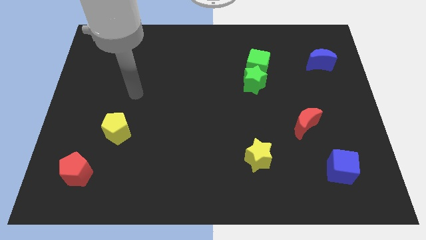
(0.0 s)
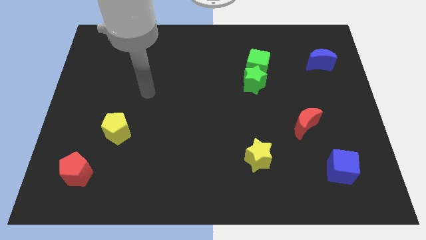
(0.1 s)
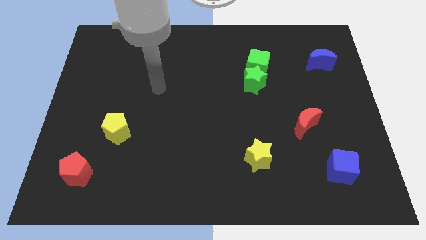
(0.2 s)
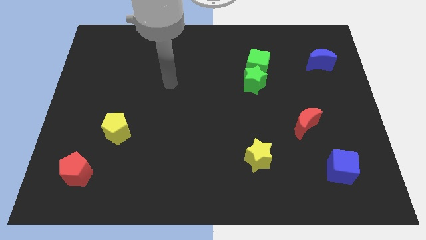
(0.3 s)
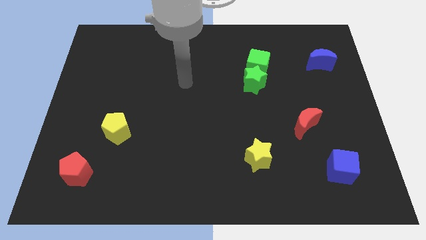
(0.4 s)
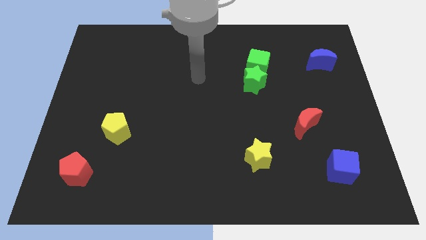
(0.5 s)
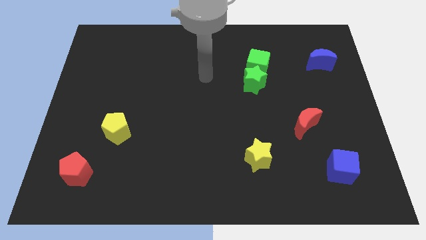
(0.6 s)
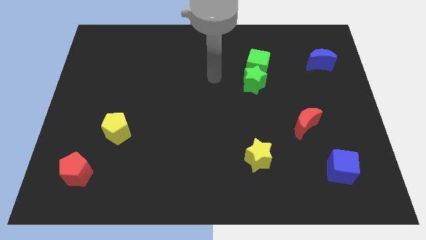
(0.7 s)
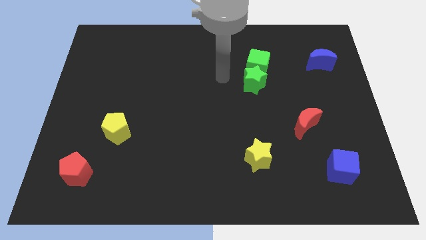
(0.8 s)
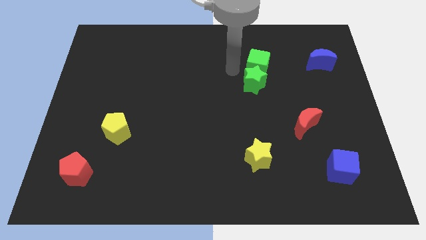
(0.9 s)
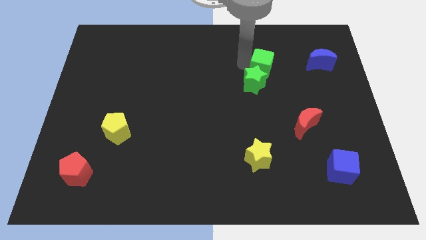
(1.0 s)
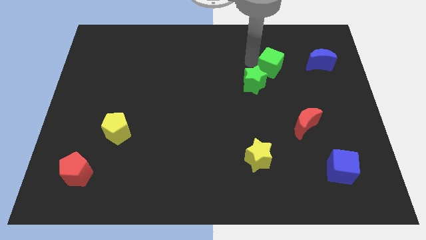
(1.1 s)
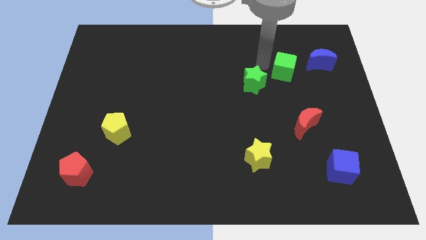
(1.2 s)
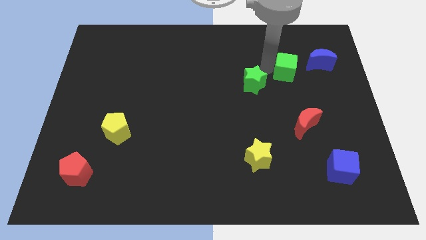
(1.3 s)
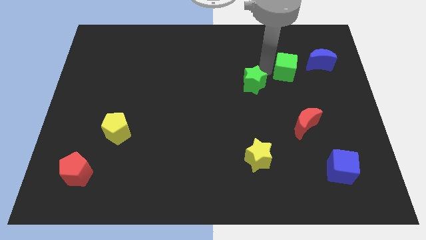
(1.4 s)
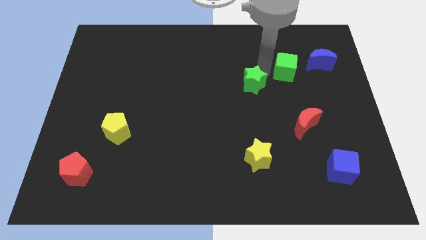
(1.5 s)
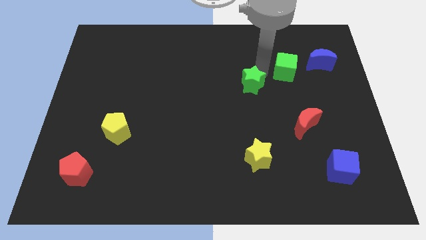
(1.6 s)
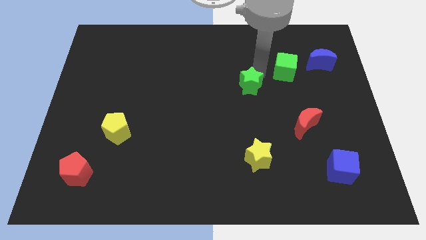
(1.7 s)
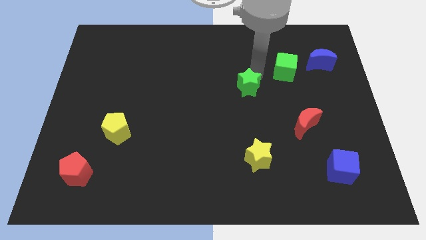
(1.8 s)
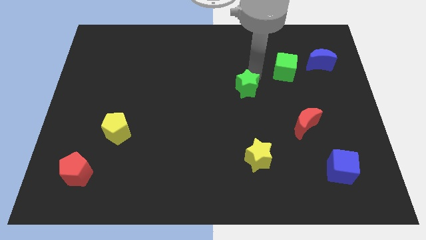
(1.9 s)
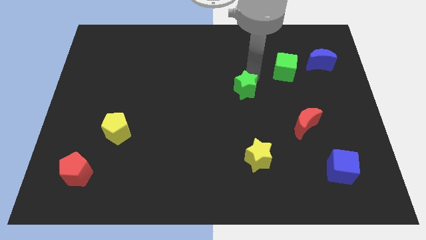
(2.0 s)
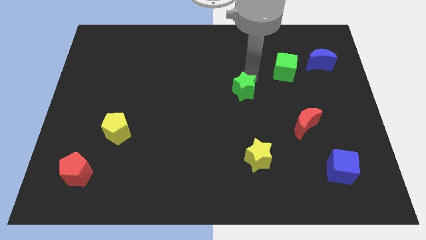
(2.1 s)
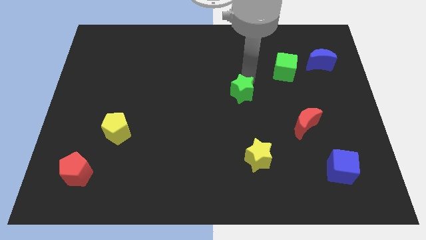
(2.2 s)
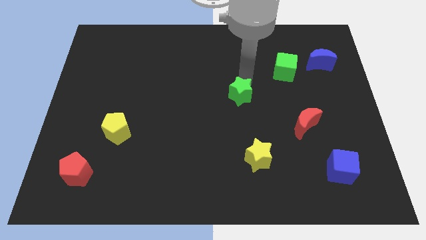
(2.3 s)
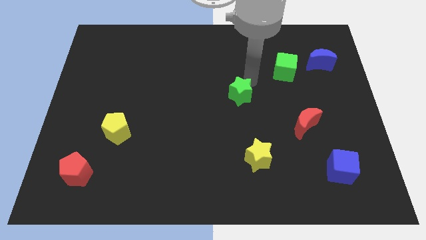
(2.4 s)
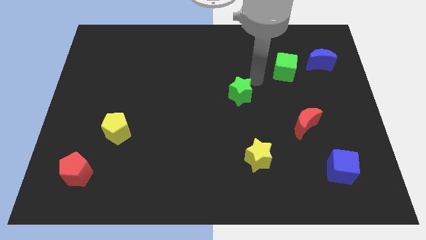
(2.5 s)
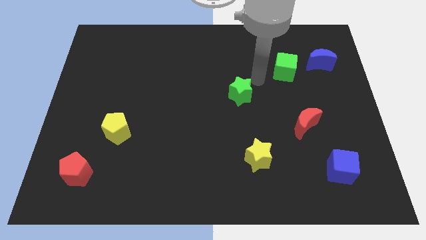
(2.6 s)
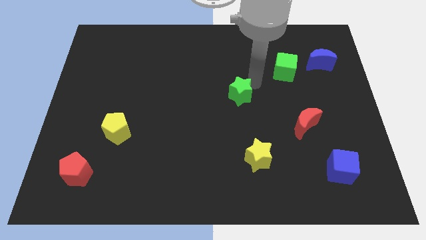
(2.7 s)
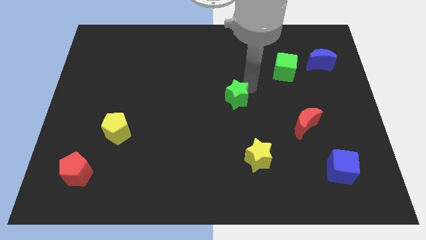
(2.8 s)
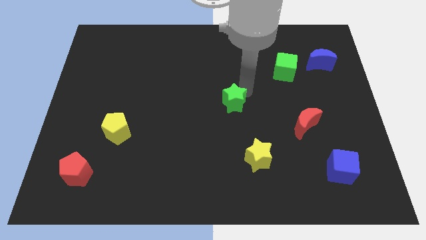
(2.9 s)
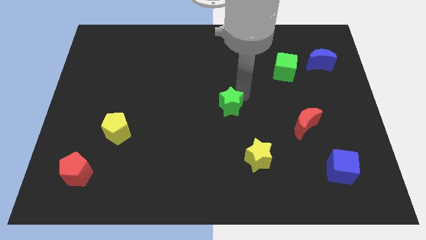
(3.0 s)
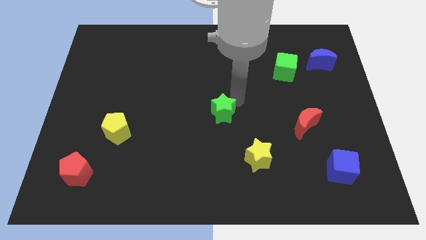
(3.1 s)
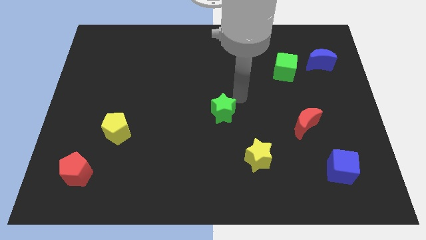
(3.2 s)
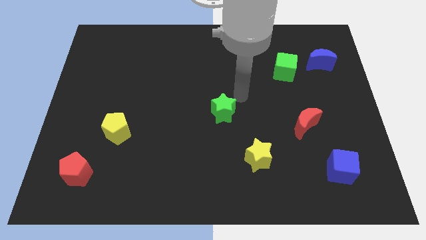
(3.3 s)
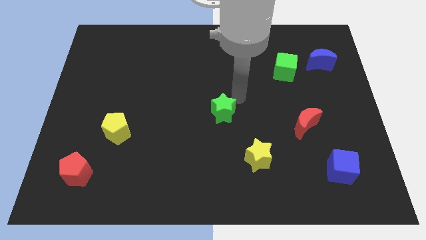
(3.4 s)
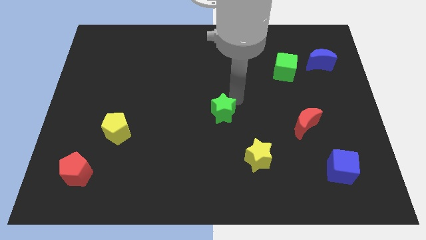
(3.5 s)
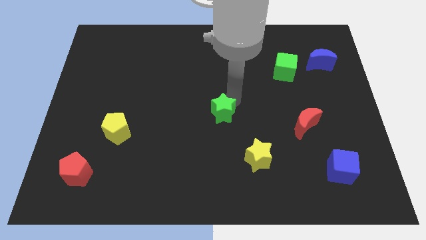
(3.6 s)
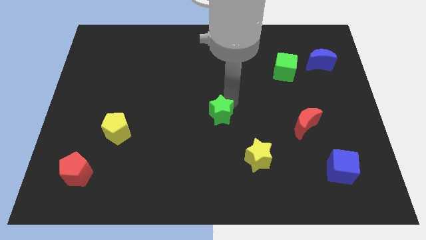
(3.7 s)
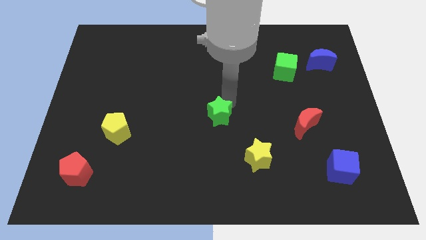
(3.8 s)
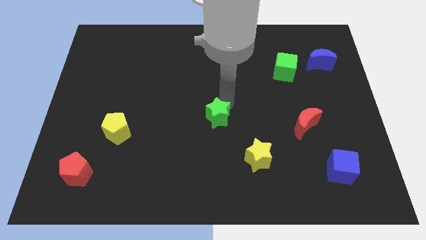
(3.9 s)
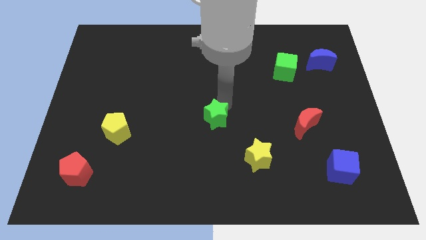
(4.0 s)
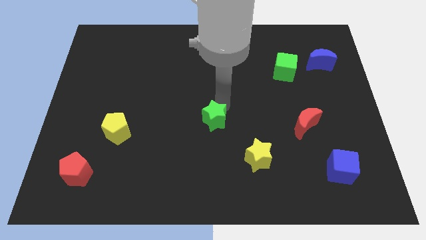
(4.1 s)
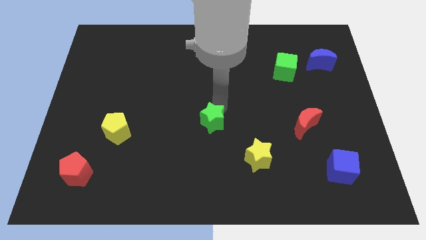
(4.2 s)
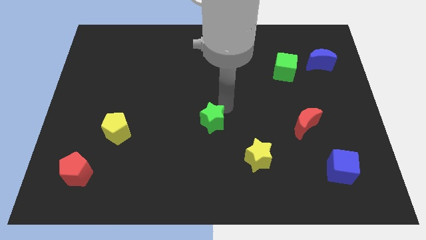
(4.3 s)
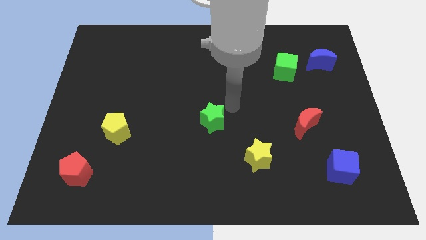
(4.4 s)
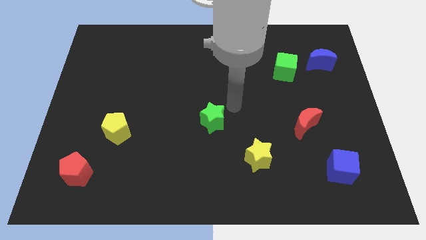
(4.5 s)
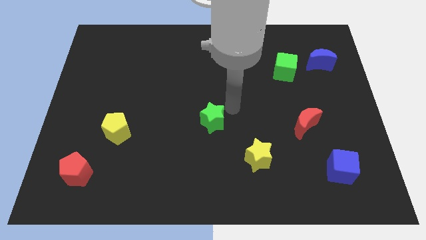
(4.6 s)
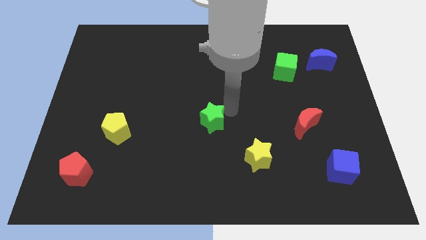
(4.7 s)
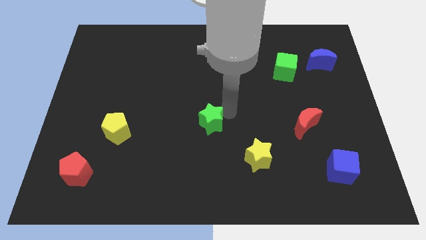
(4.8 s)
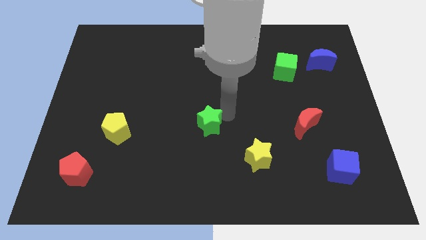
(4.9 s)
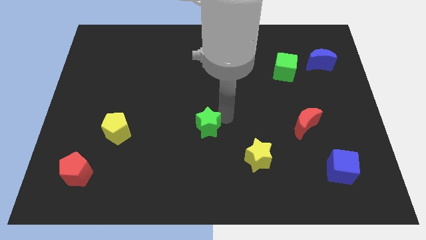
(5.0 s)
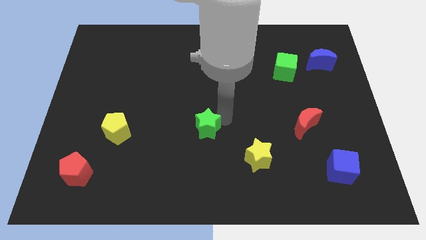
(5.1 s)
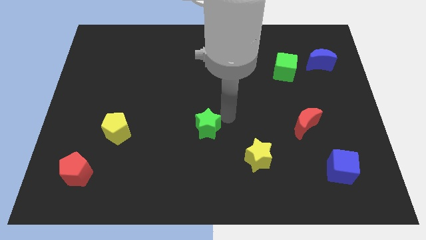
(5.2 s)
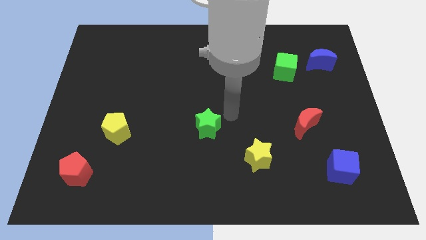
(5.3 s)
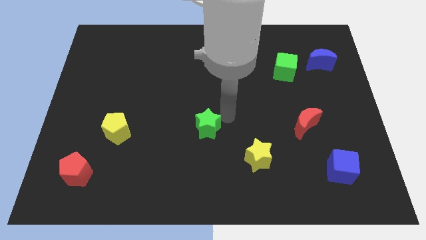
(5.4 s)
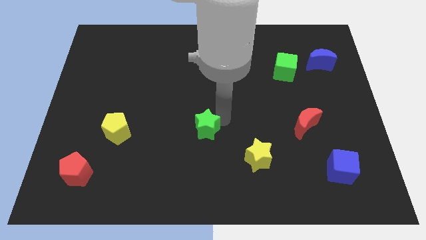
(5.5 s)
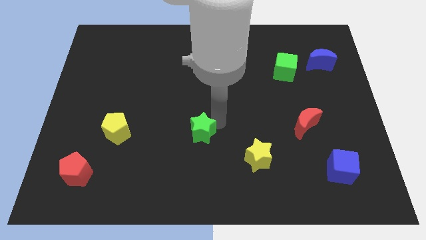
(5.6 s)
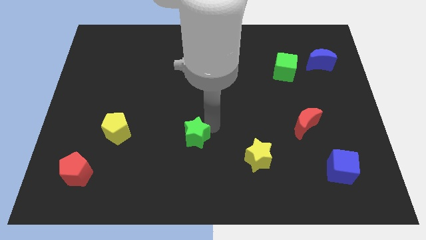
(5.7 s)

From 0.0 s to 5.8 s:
push the green star down and to the left

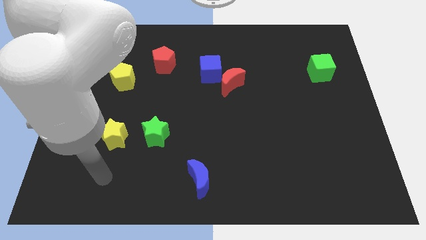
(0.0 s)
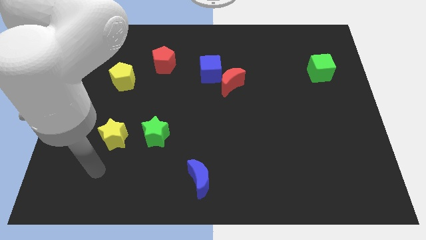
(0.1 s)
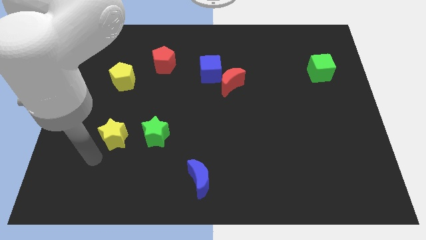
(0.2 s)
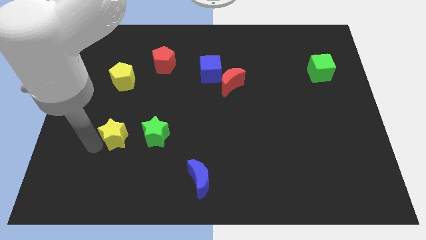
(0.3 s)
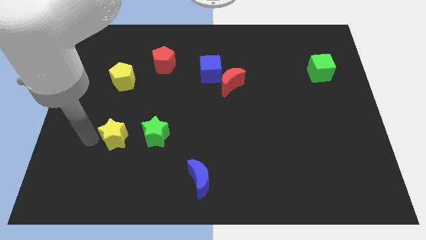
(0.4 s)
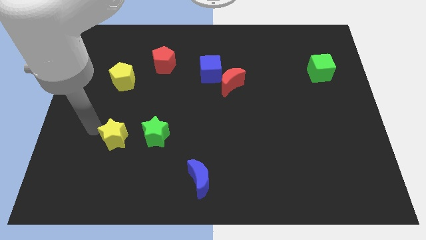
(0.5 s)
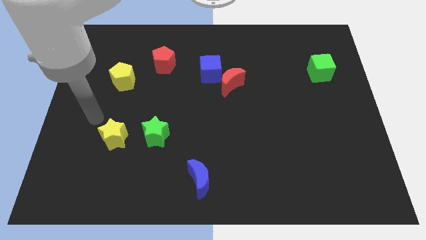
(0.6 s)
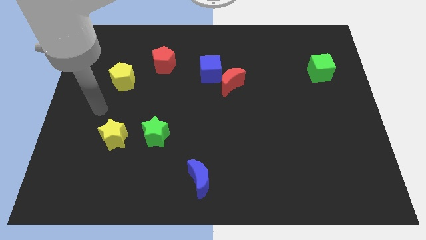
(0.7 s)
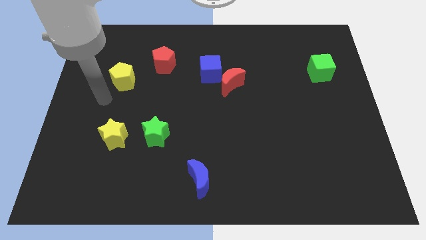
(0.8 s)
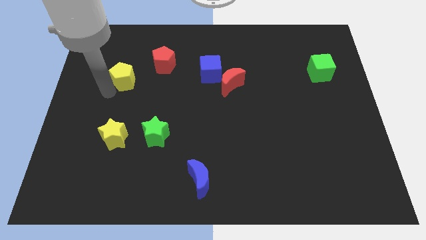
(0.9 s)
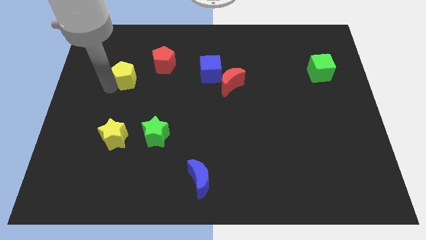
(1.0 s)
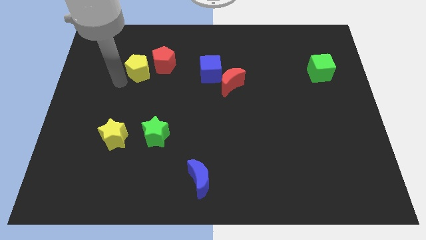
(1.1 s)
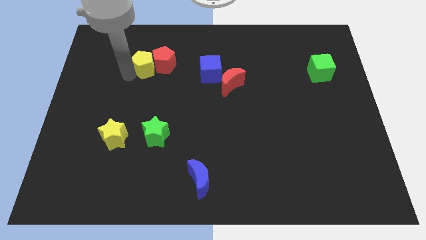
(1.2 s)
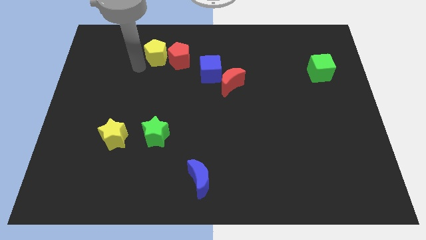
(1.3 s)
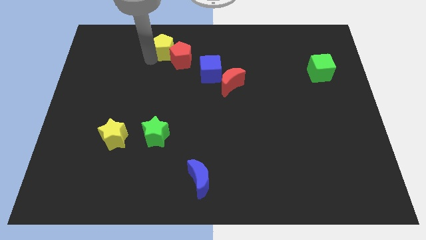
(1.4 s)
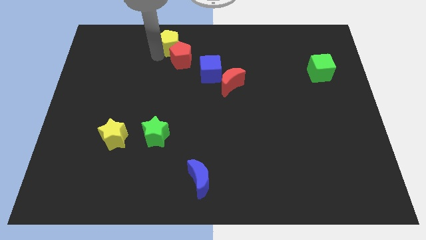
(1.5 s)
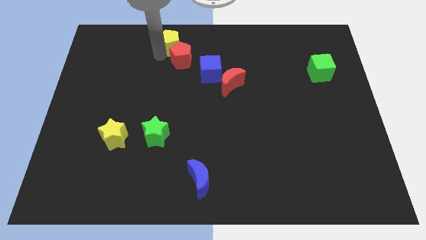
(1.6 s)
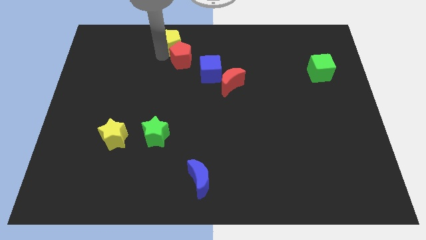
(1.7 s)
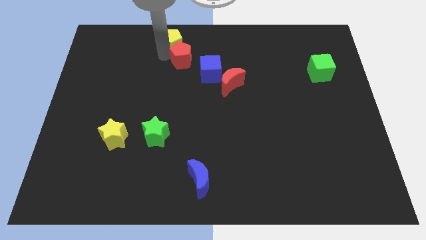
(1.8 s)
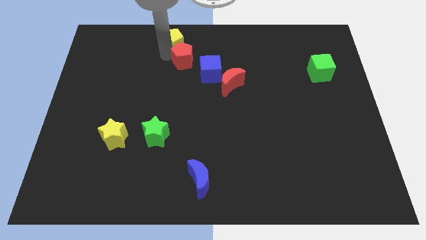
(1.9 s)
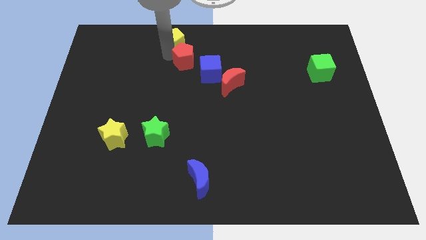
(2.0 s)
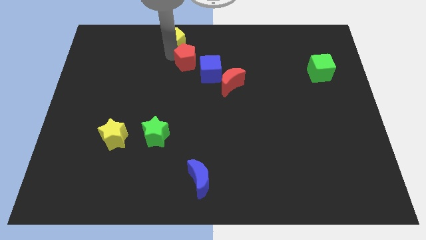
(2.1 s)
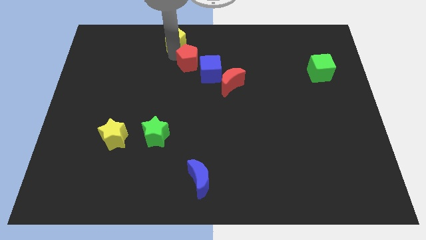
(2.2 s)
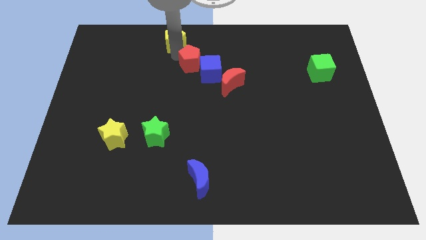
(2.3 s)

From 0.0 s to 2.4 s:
move the red pentagon a bit to the right
